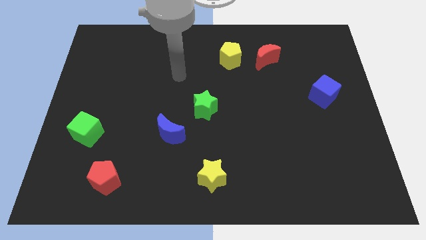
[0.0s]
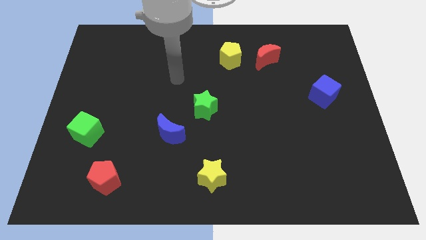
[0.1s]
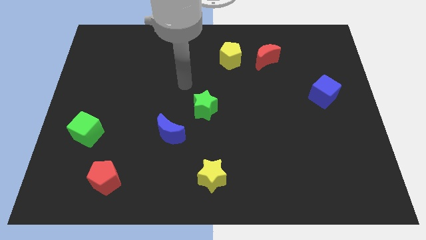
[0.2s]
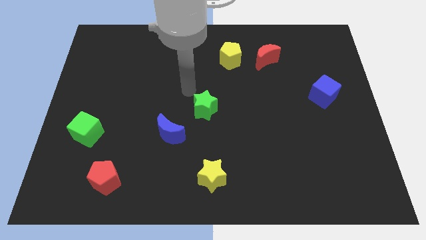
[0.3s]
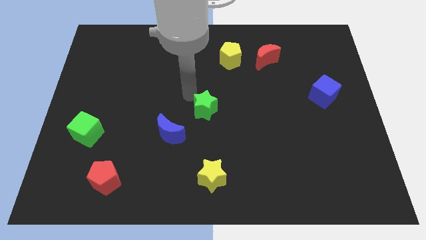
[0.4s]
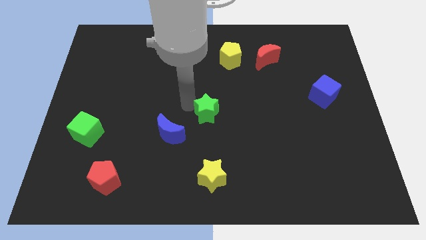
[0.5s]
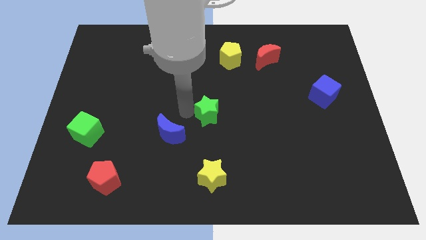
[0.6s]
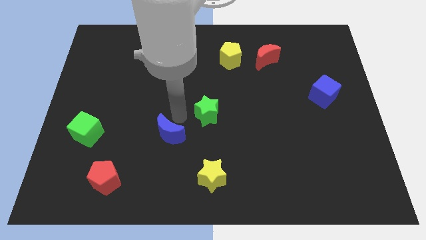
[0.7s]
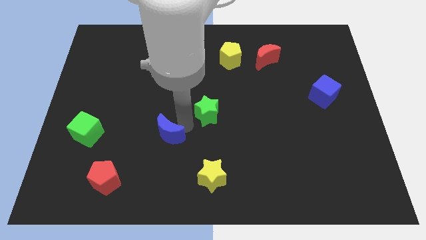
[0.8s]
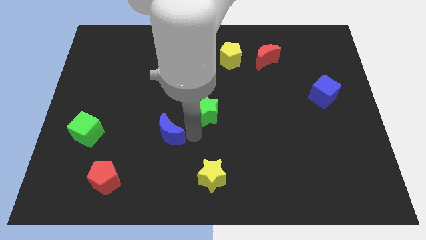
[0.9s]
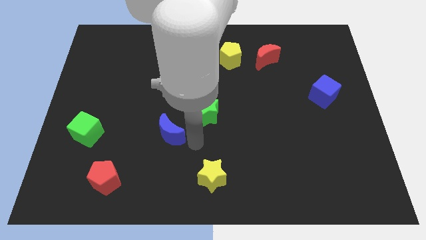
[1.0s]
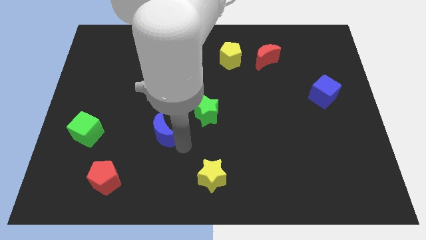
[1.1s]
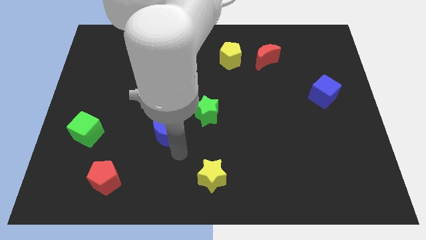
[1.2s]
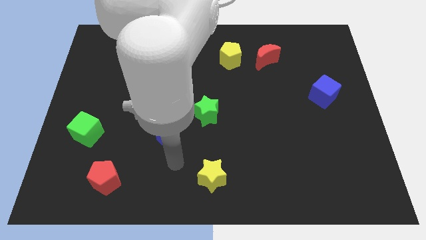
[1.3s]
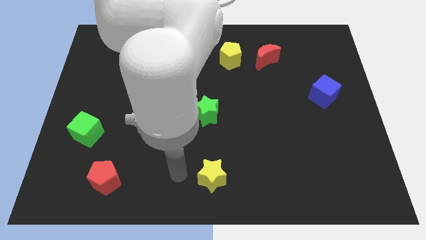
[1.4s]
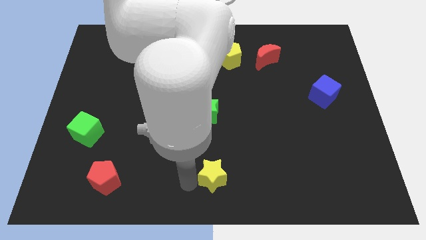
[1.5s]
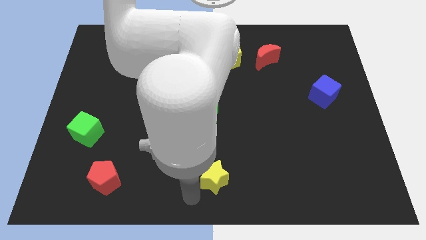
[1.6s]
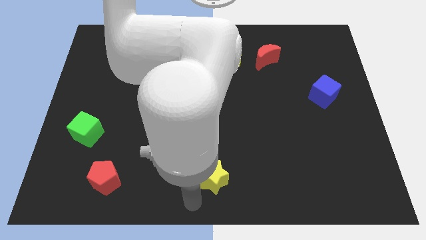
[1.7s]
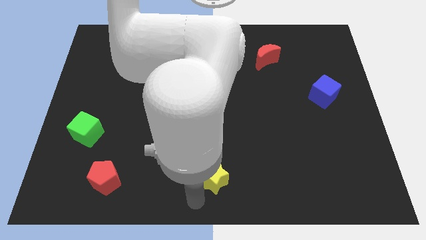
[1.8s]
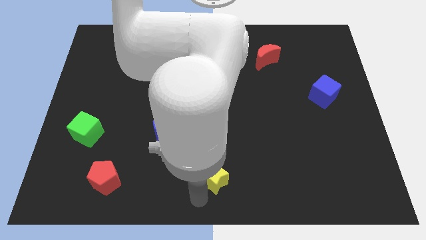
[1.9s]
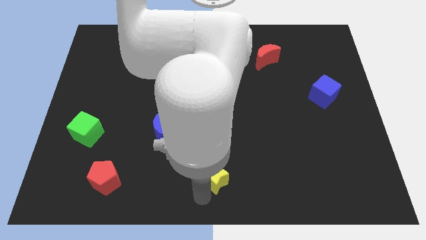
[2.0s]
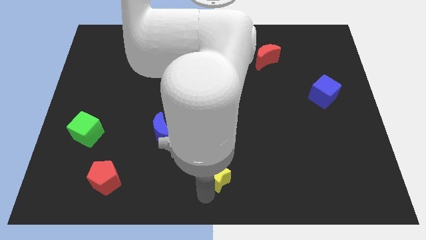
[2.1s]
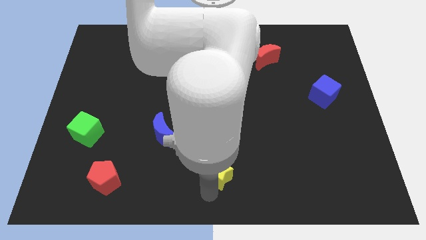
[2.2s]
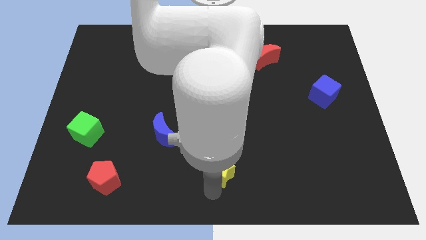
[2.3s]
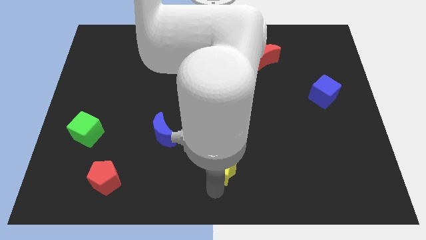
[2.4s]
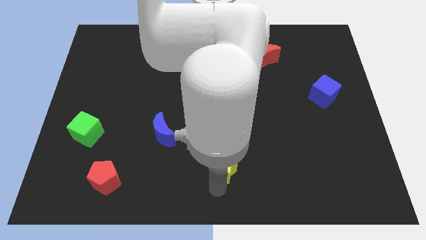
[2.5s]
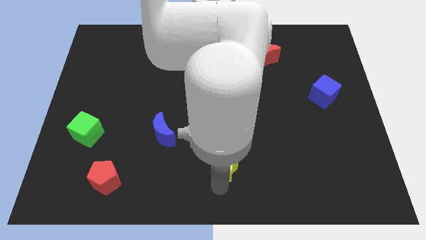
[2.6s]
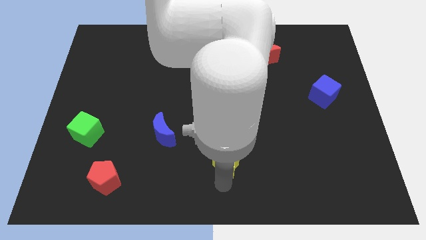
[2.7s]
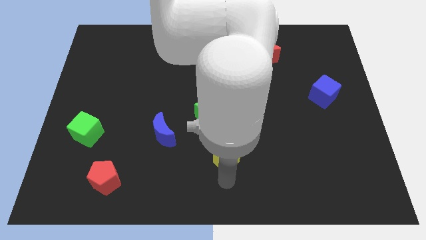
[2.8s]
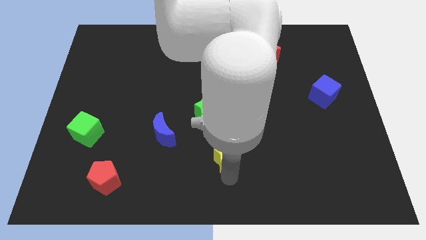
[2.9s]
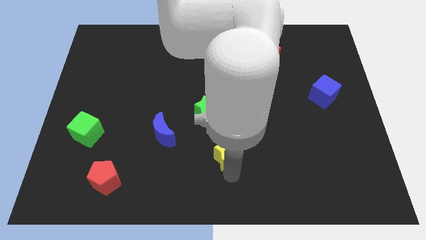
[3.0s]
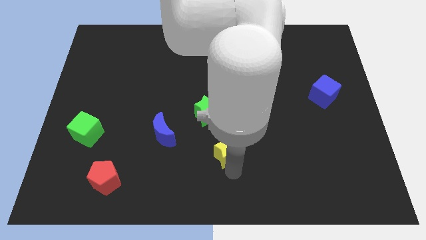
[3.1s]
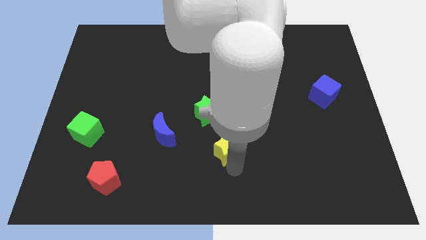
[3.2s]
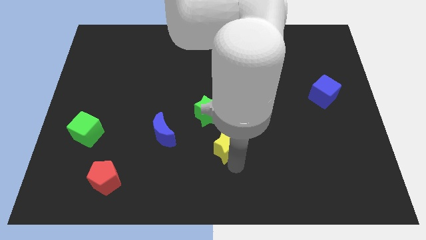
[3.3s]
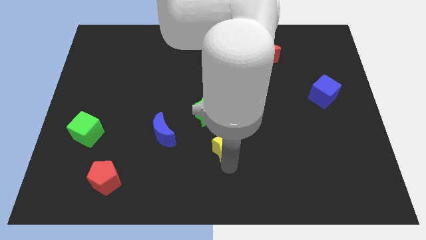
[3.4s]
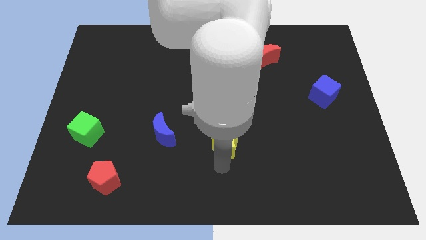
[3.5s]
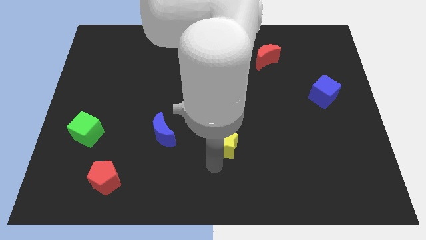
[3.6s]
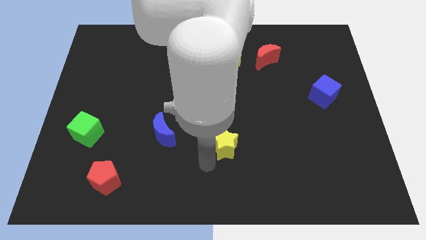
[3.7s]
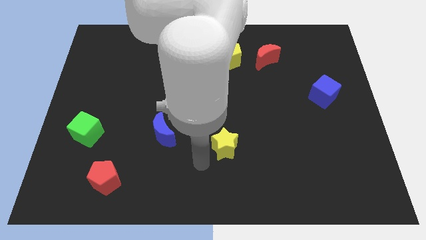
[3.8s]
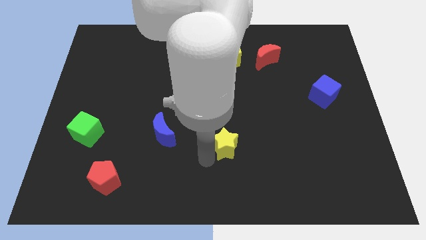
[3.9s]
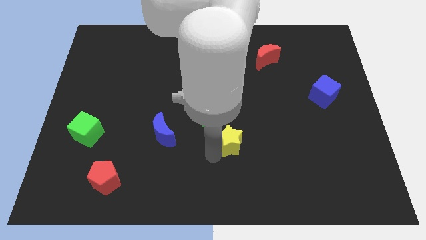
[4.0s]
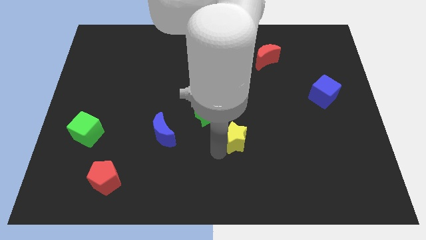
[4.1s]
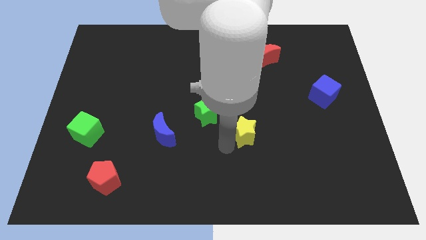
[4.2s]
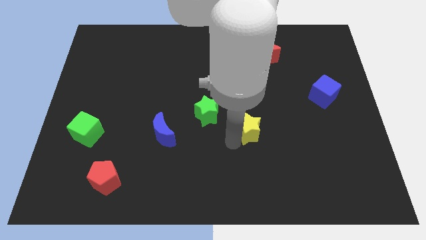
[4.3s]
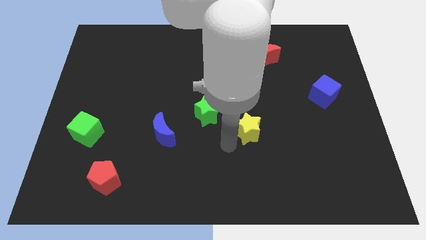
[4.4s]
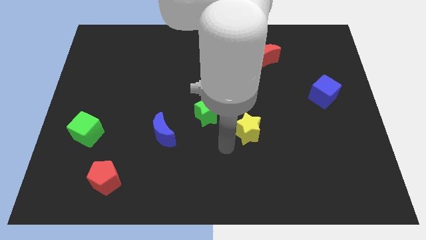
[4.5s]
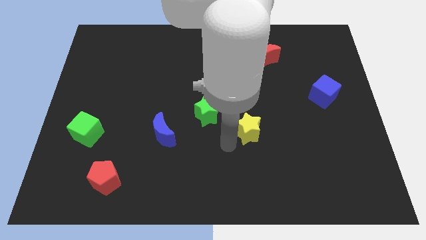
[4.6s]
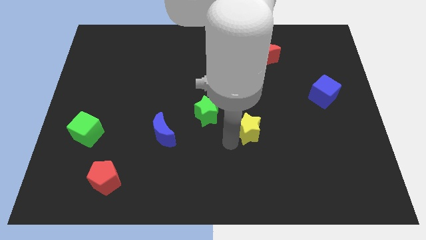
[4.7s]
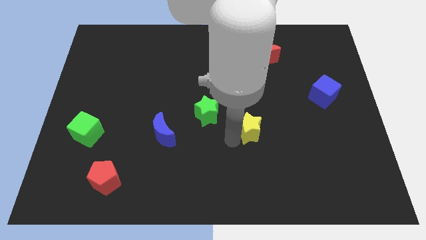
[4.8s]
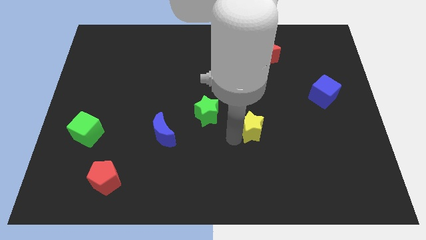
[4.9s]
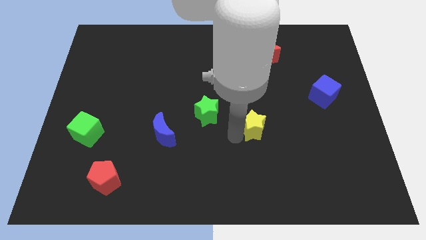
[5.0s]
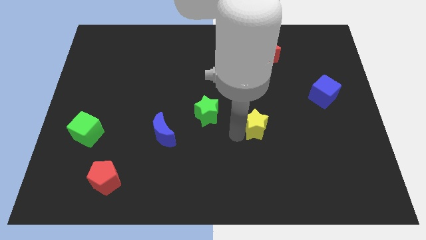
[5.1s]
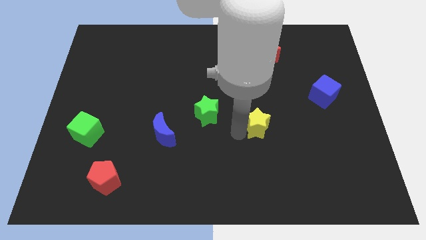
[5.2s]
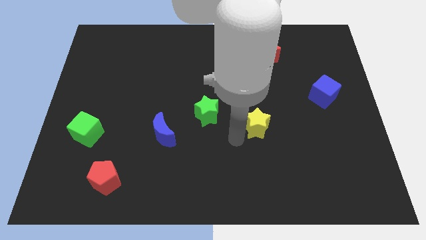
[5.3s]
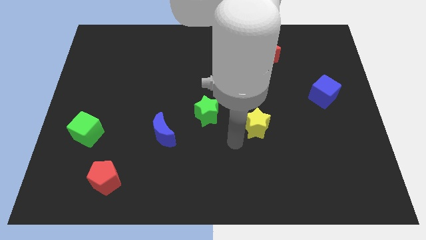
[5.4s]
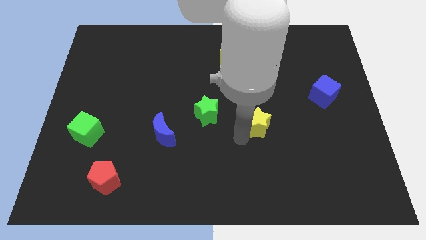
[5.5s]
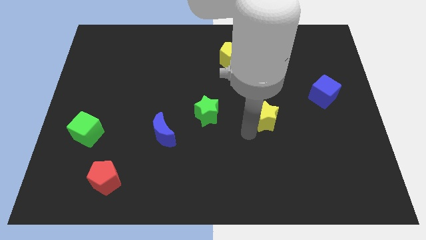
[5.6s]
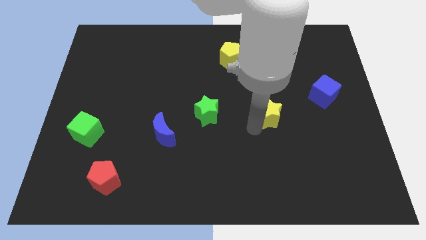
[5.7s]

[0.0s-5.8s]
slide the yellow star up and to the right diagonally

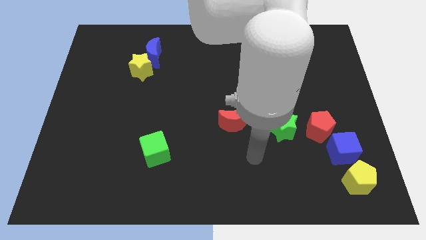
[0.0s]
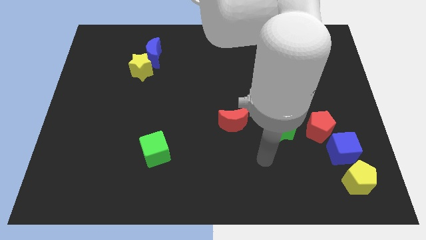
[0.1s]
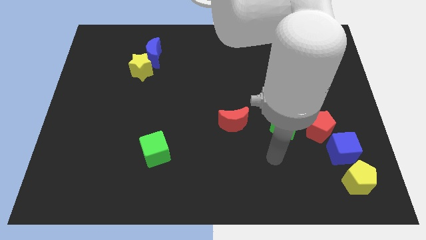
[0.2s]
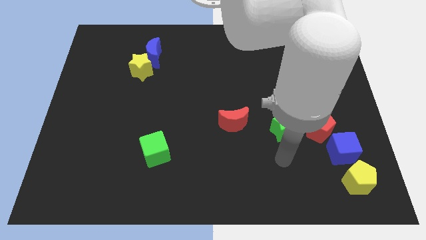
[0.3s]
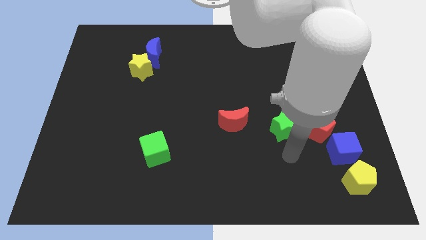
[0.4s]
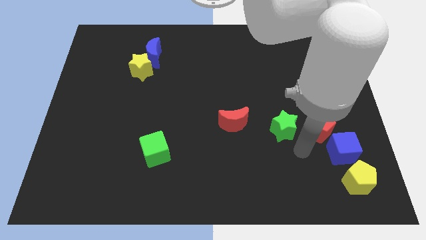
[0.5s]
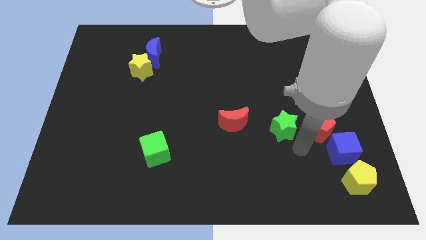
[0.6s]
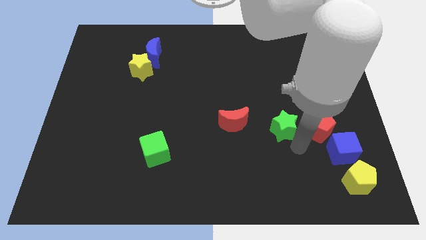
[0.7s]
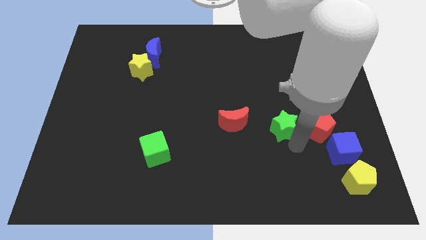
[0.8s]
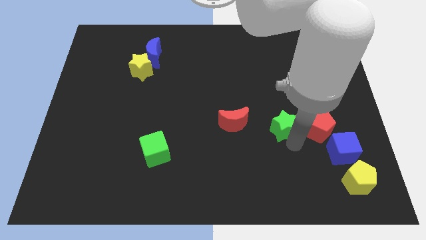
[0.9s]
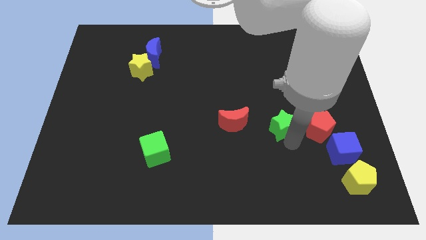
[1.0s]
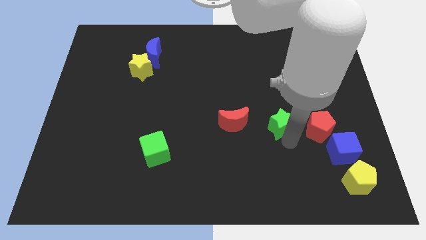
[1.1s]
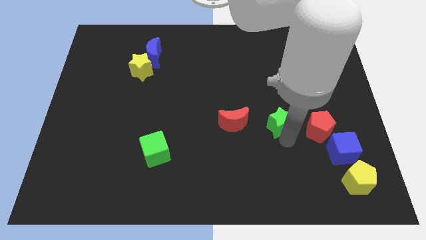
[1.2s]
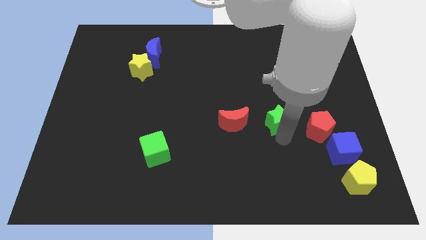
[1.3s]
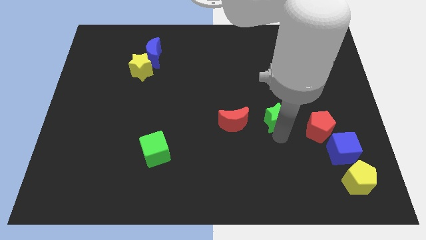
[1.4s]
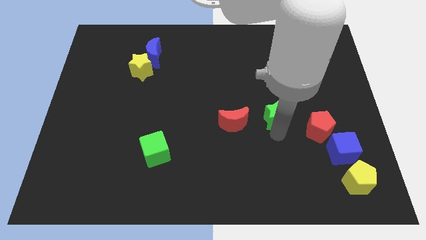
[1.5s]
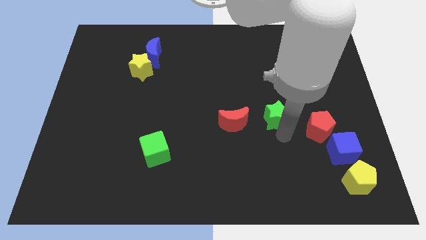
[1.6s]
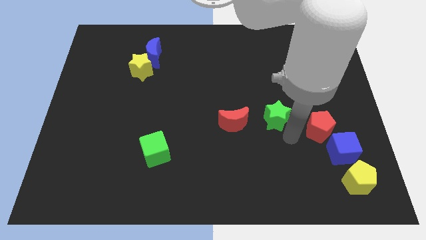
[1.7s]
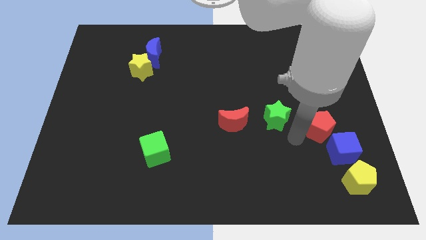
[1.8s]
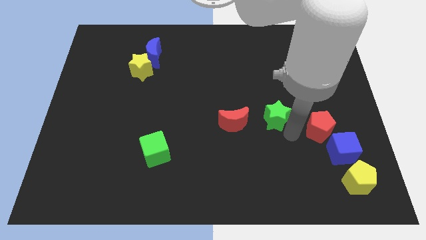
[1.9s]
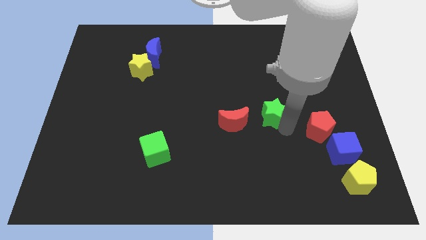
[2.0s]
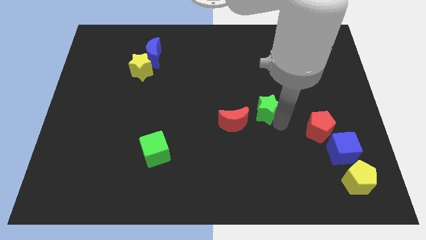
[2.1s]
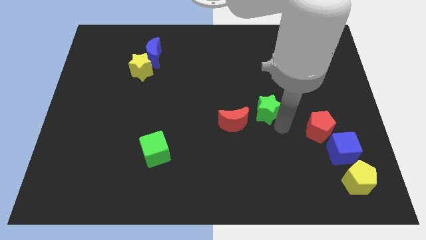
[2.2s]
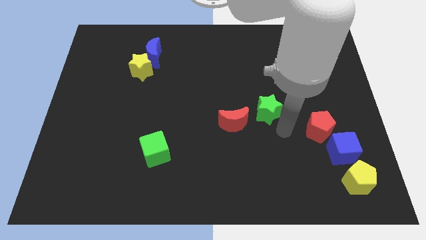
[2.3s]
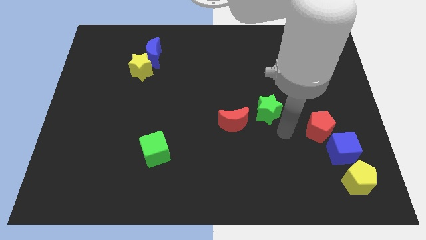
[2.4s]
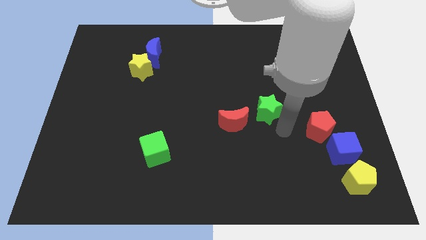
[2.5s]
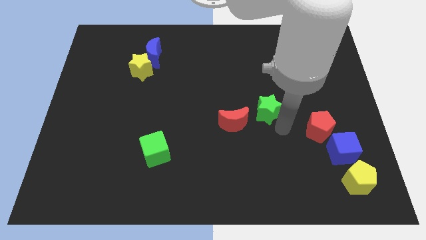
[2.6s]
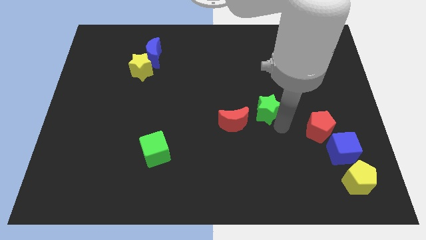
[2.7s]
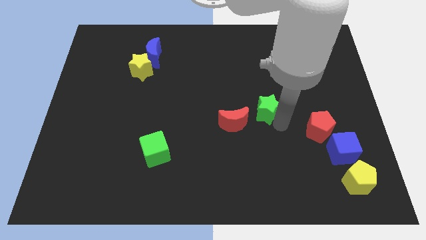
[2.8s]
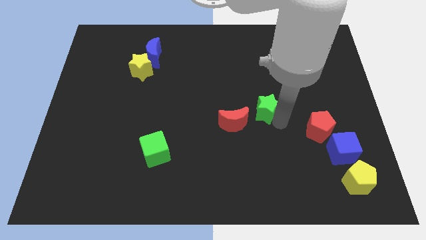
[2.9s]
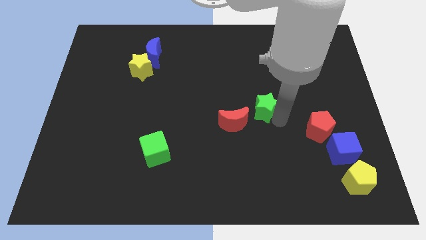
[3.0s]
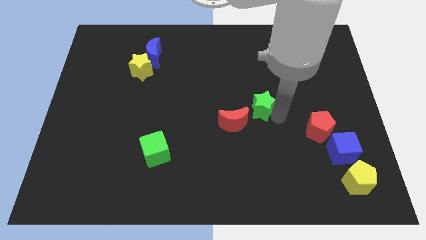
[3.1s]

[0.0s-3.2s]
slide the green star upwards and to the left a bit
